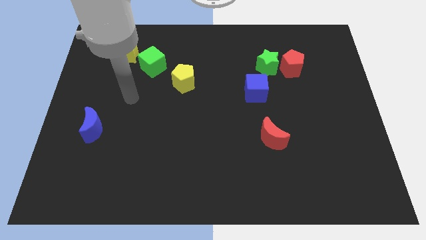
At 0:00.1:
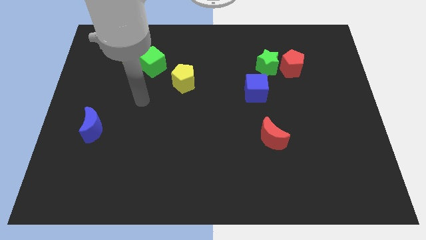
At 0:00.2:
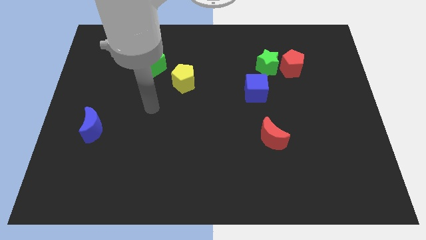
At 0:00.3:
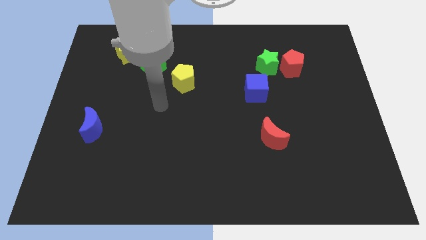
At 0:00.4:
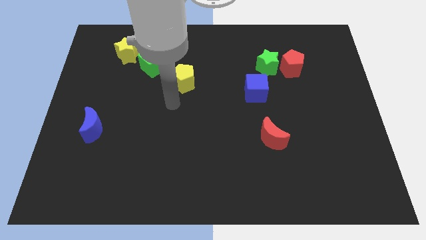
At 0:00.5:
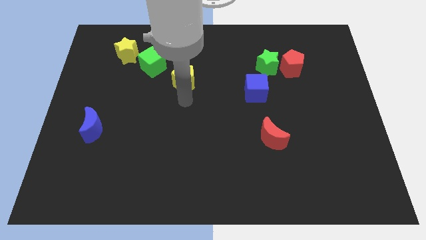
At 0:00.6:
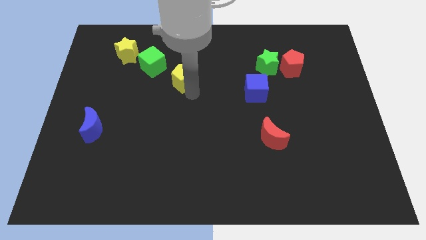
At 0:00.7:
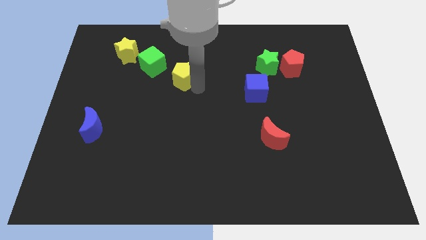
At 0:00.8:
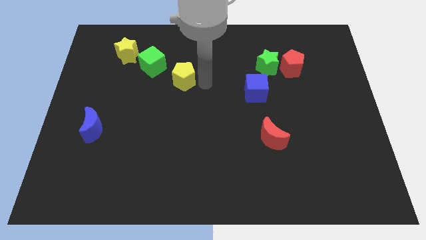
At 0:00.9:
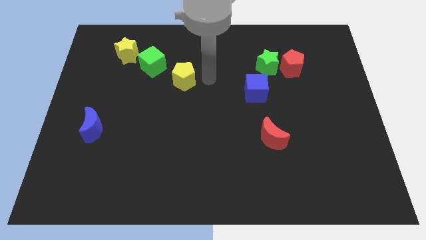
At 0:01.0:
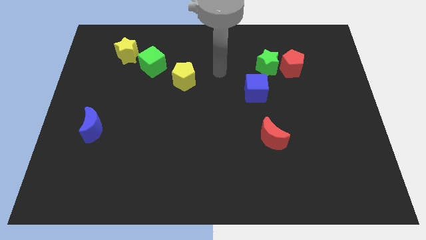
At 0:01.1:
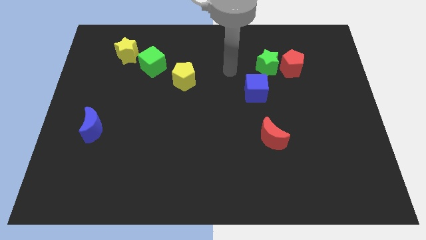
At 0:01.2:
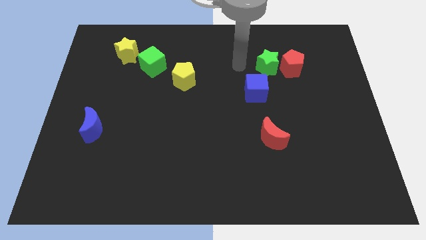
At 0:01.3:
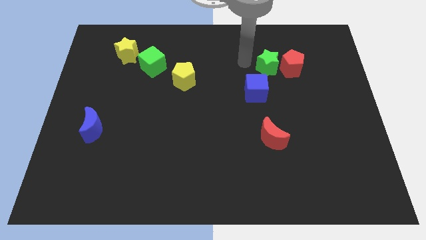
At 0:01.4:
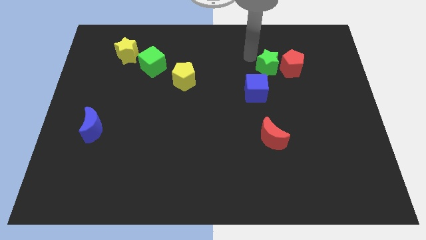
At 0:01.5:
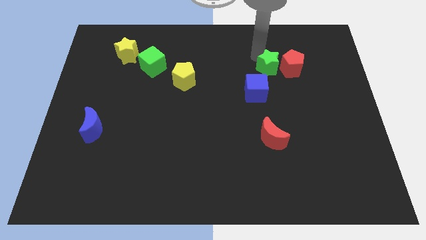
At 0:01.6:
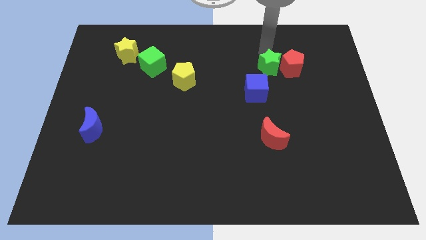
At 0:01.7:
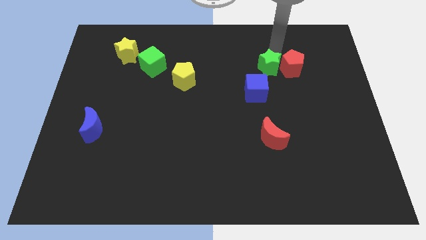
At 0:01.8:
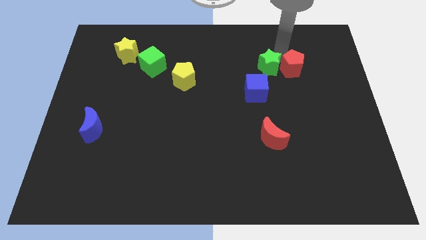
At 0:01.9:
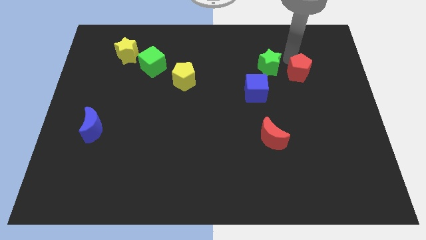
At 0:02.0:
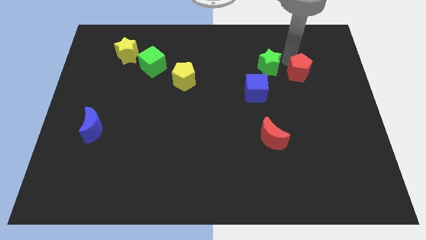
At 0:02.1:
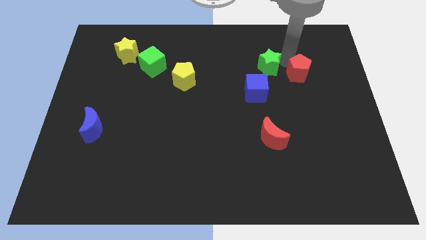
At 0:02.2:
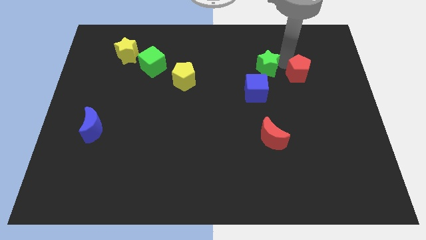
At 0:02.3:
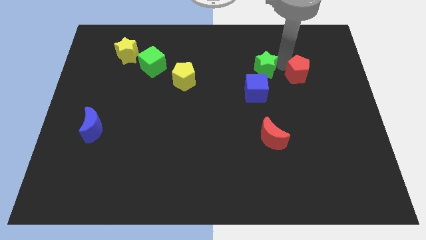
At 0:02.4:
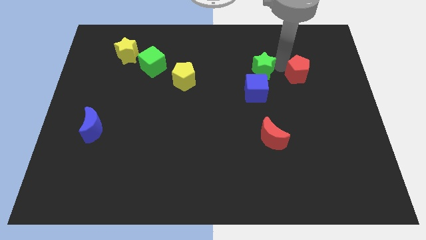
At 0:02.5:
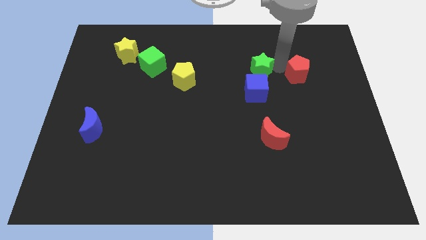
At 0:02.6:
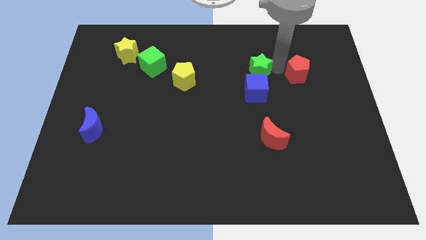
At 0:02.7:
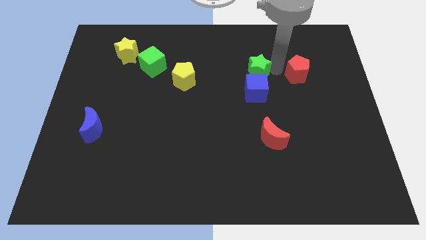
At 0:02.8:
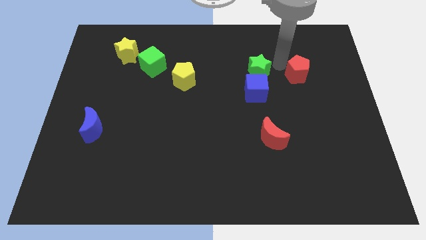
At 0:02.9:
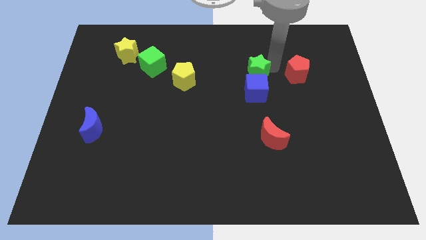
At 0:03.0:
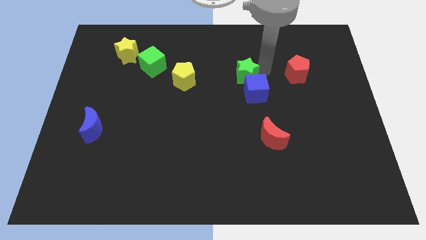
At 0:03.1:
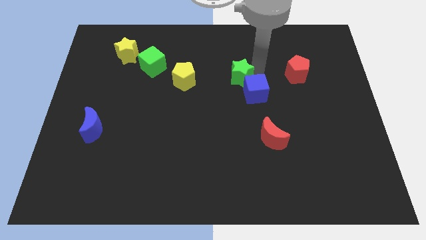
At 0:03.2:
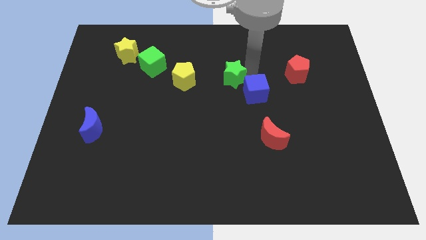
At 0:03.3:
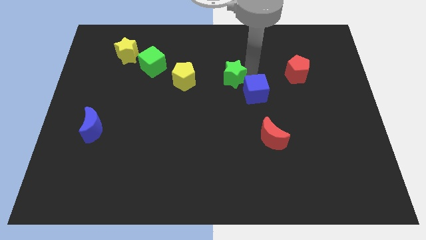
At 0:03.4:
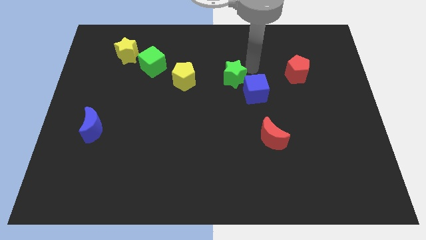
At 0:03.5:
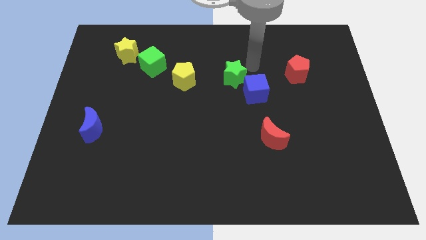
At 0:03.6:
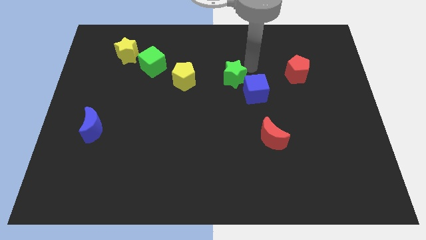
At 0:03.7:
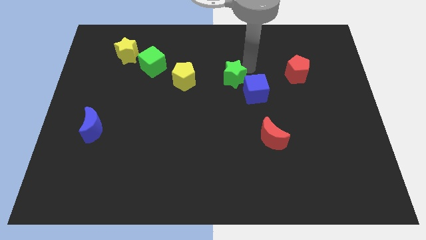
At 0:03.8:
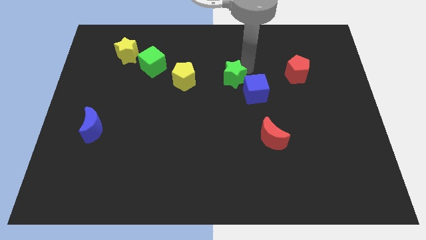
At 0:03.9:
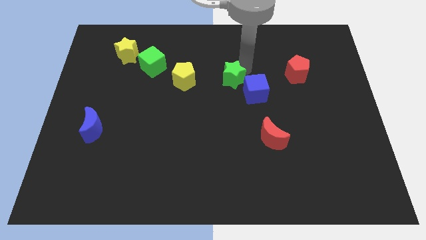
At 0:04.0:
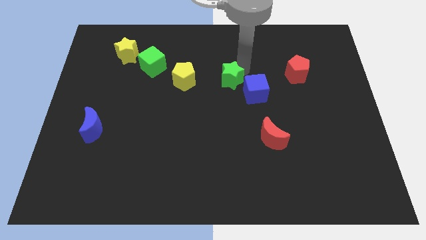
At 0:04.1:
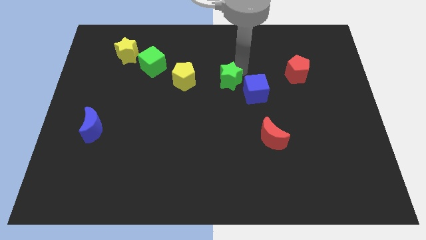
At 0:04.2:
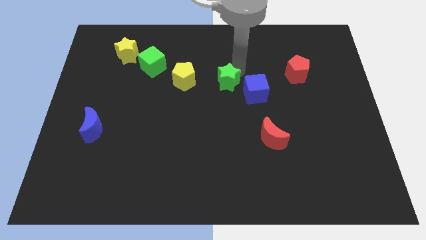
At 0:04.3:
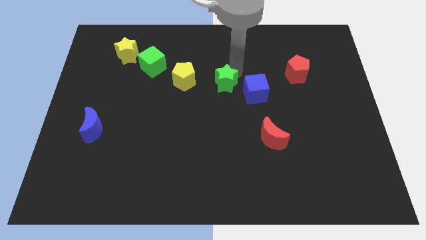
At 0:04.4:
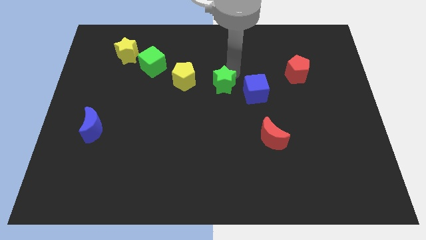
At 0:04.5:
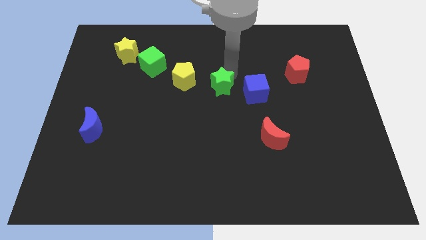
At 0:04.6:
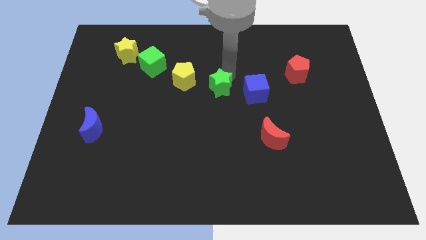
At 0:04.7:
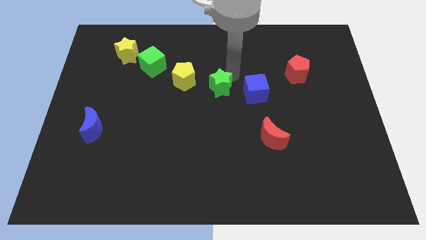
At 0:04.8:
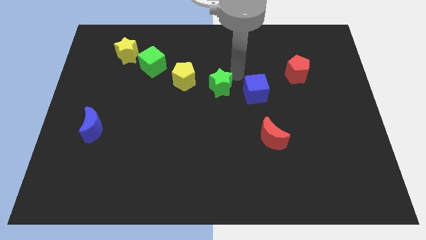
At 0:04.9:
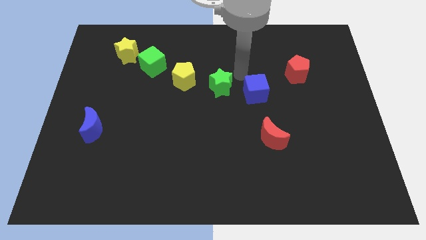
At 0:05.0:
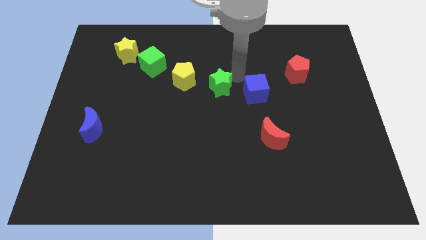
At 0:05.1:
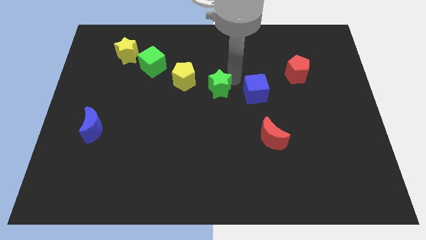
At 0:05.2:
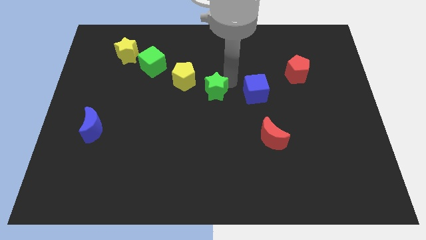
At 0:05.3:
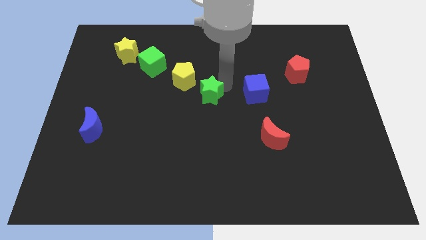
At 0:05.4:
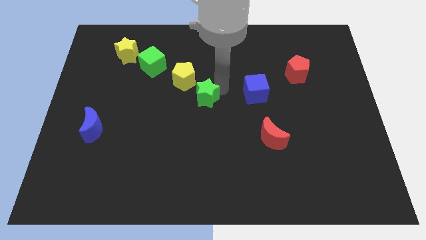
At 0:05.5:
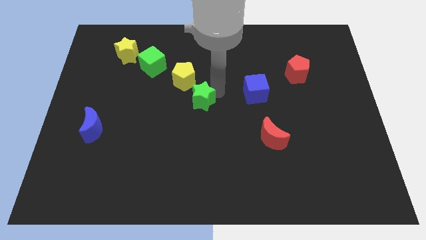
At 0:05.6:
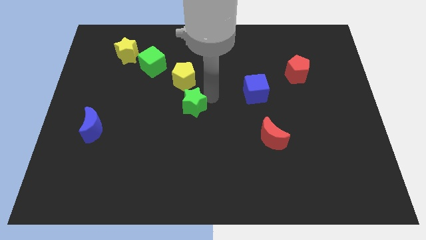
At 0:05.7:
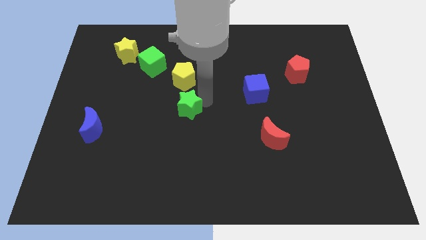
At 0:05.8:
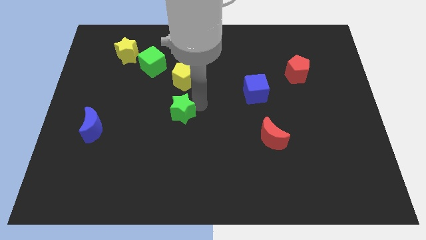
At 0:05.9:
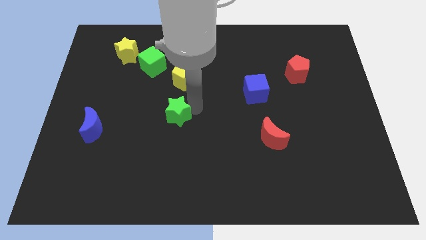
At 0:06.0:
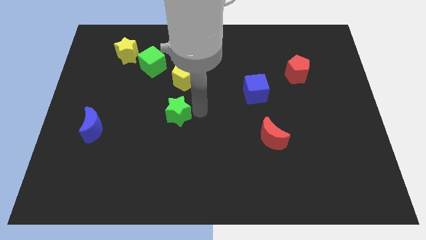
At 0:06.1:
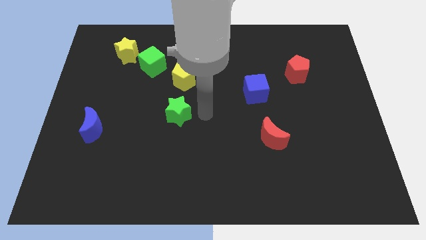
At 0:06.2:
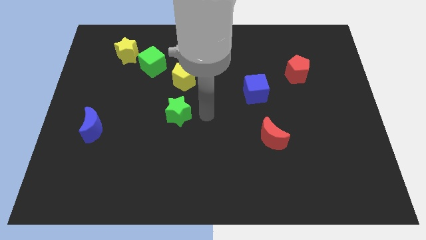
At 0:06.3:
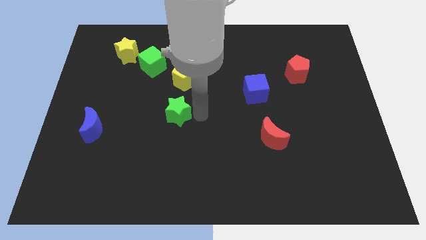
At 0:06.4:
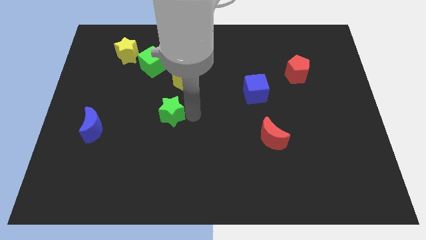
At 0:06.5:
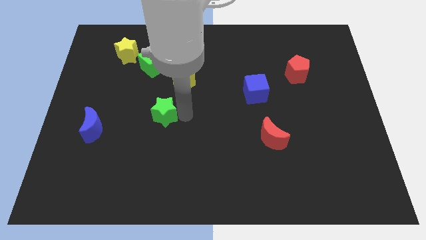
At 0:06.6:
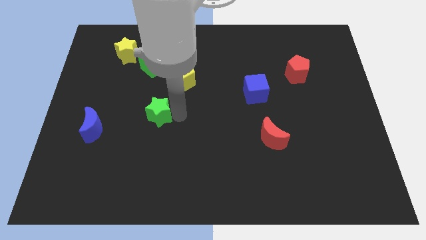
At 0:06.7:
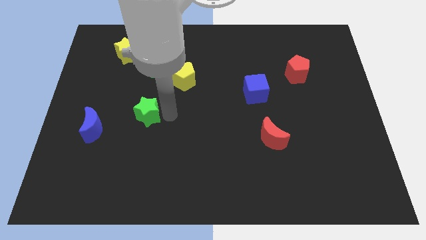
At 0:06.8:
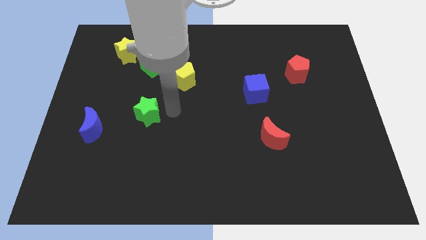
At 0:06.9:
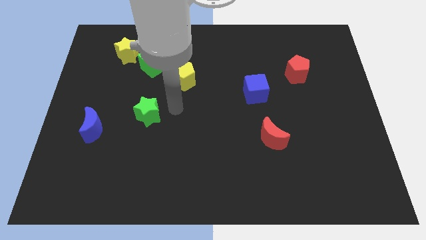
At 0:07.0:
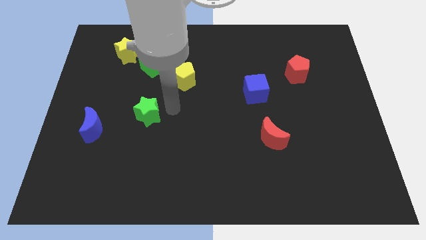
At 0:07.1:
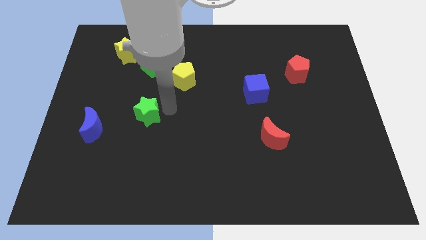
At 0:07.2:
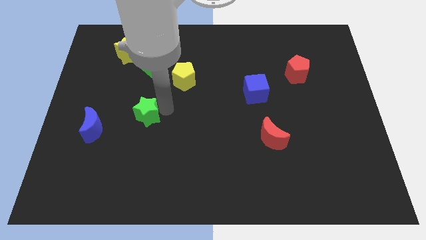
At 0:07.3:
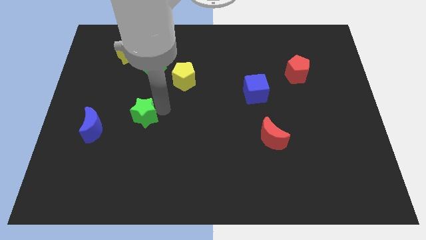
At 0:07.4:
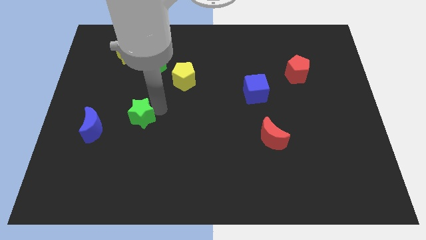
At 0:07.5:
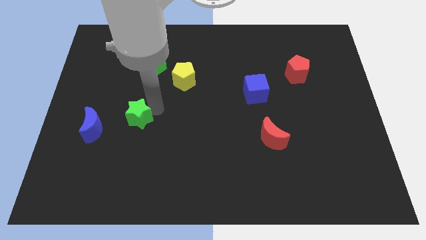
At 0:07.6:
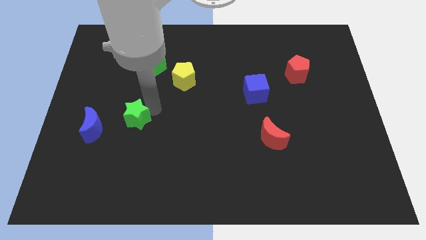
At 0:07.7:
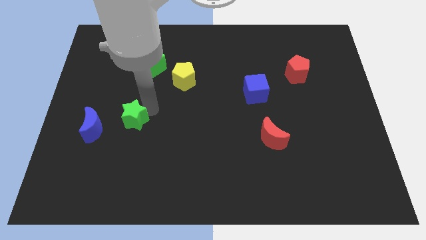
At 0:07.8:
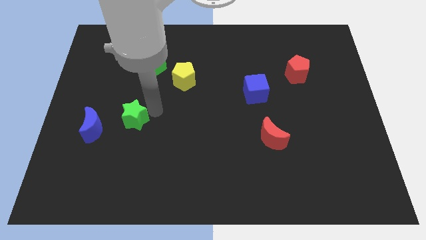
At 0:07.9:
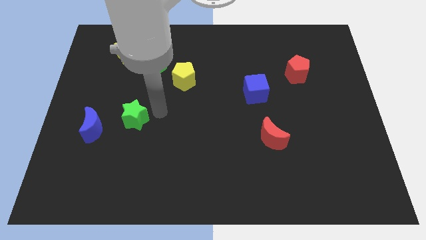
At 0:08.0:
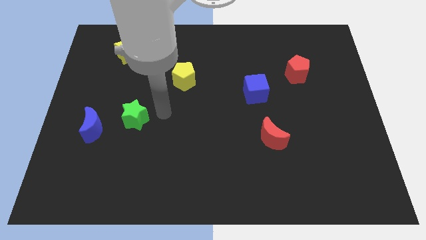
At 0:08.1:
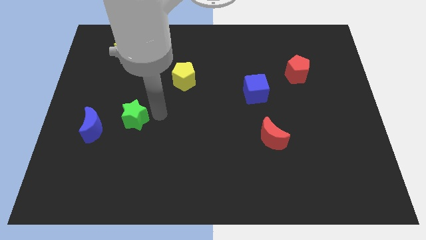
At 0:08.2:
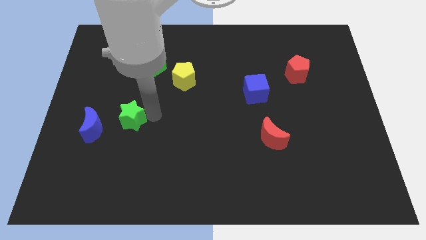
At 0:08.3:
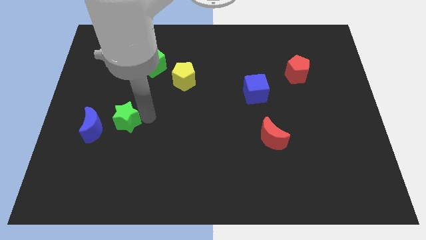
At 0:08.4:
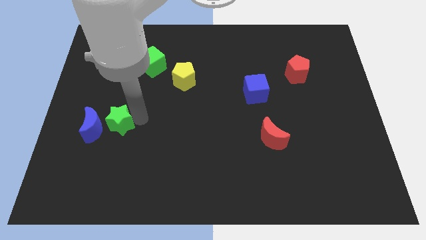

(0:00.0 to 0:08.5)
put the green star to the blue moon
